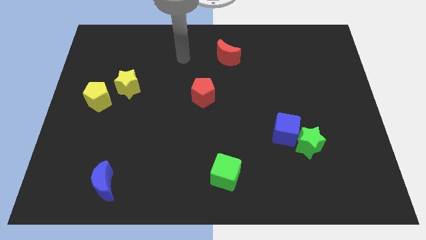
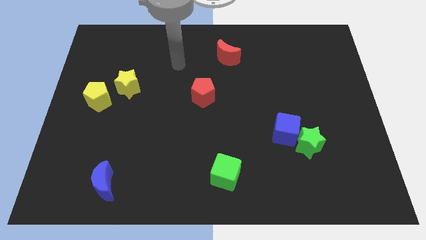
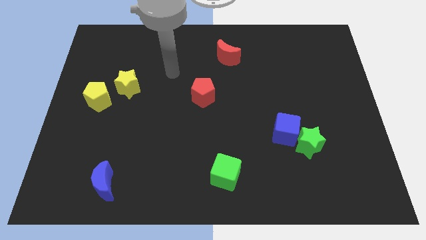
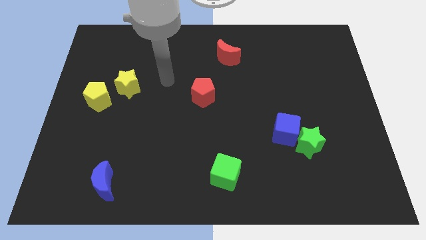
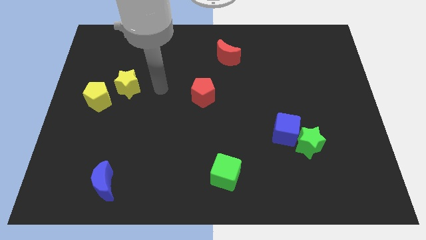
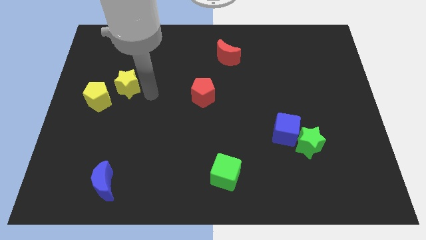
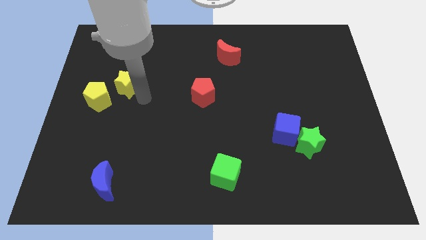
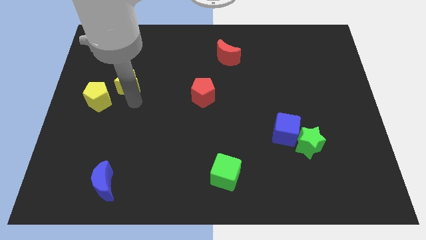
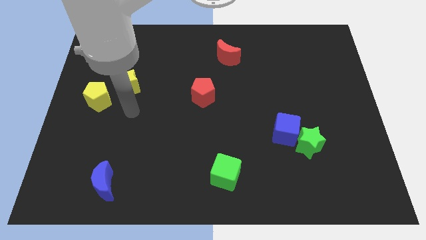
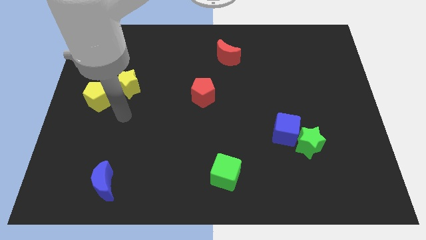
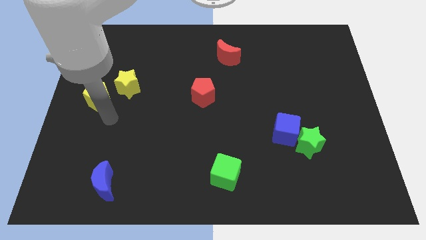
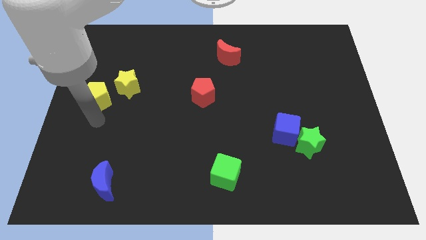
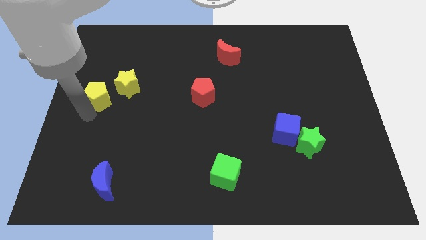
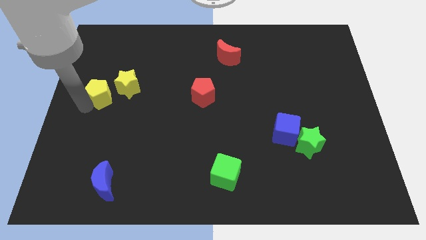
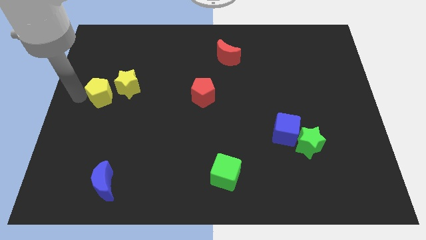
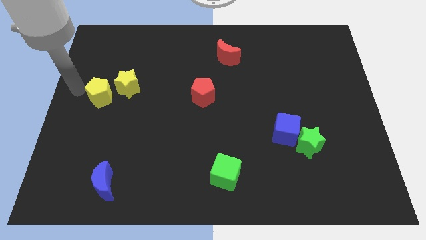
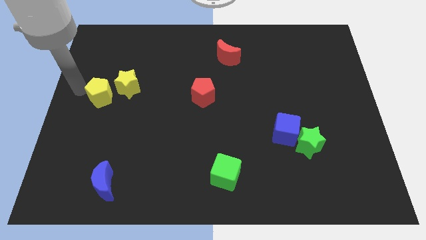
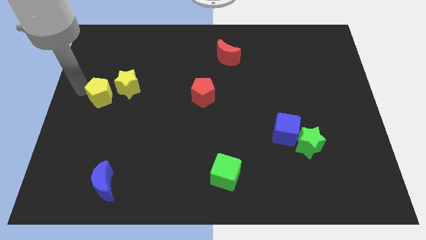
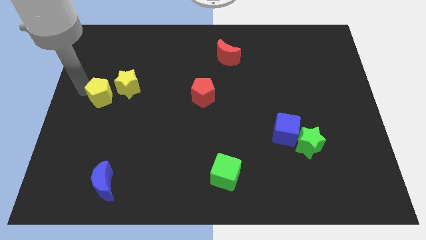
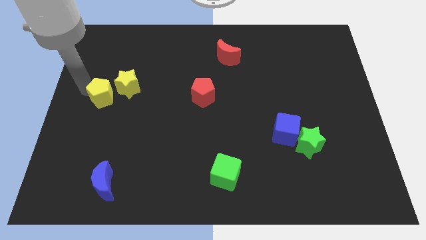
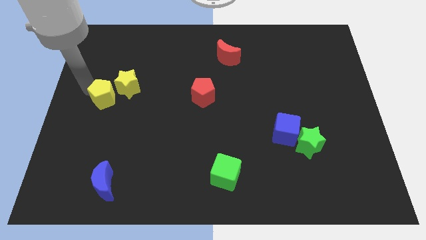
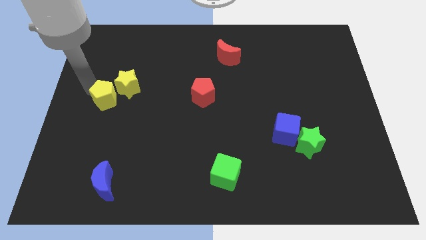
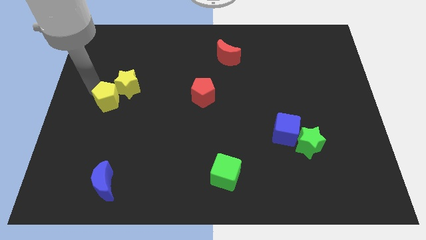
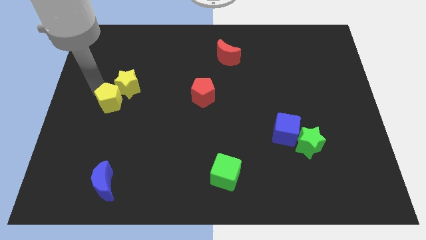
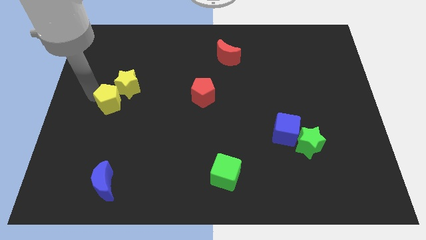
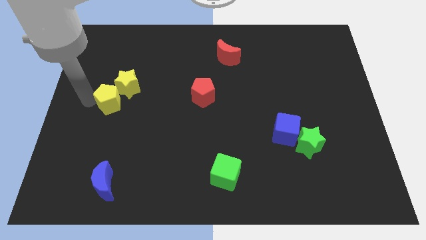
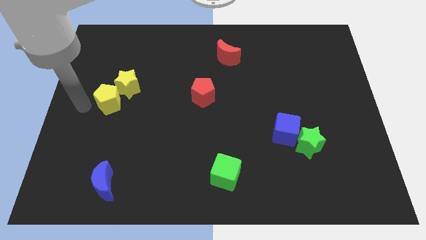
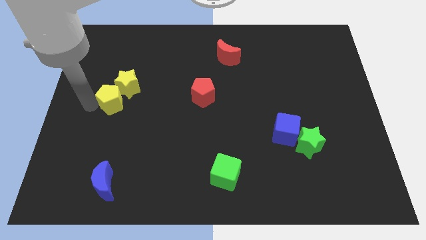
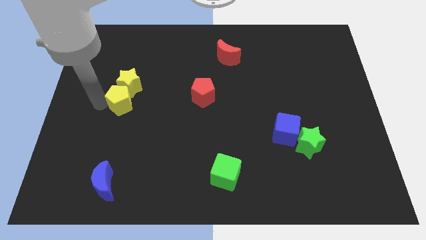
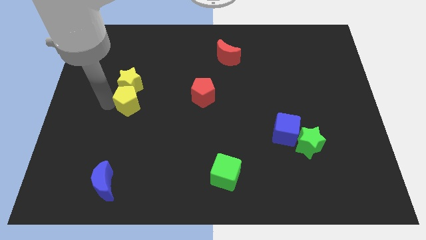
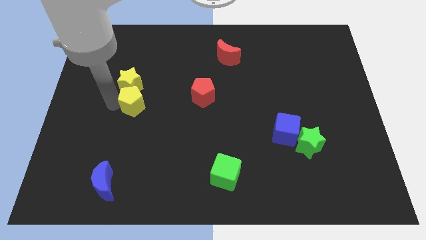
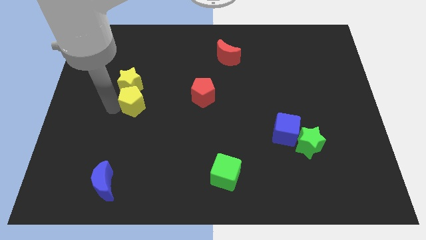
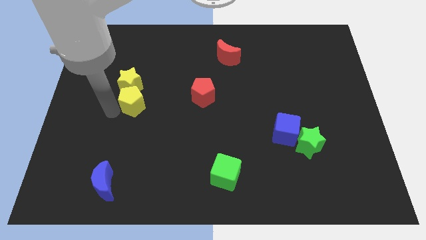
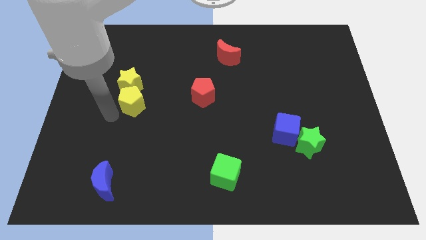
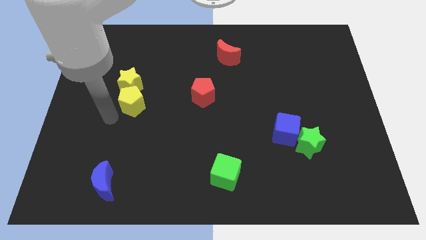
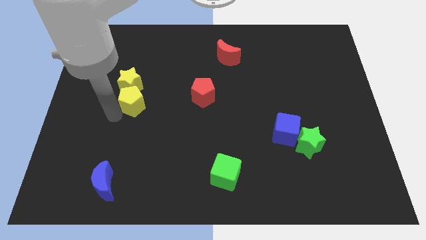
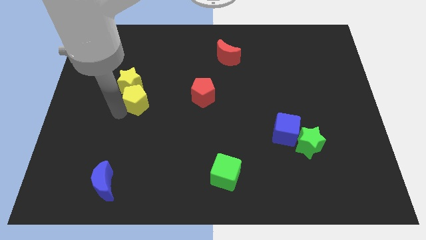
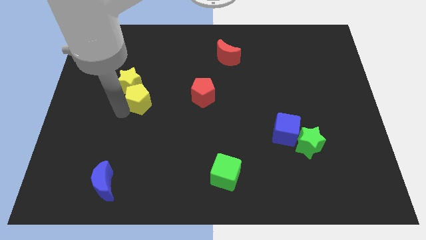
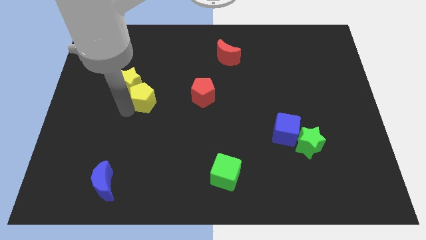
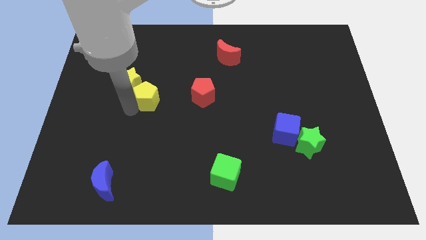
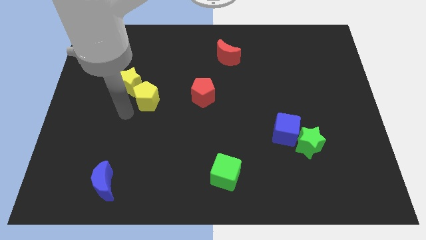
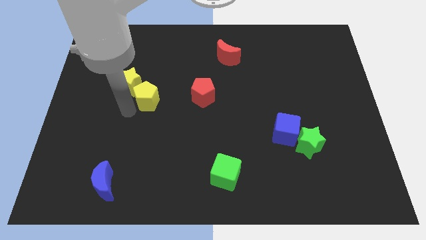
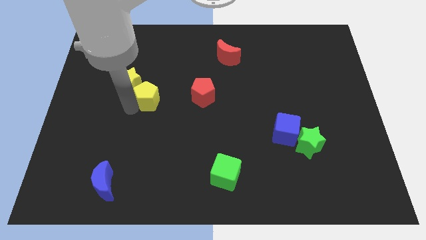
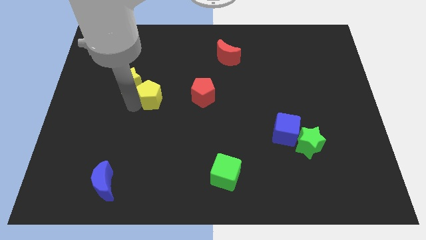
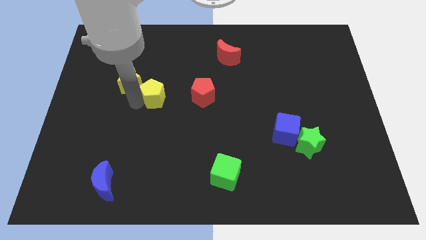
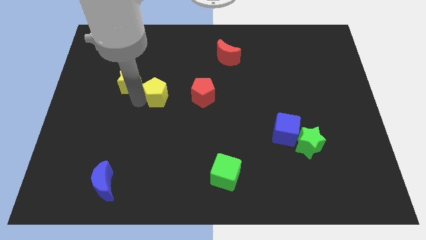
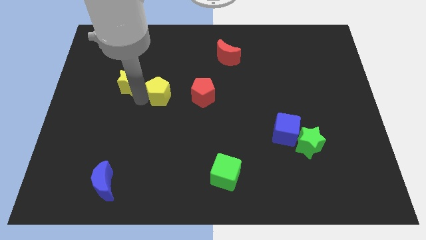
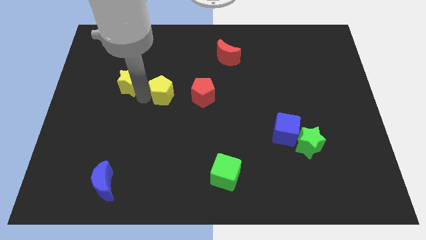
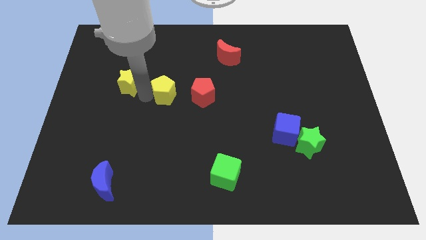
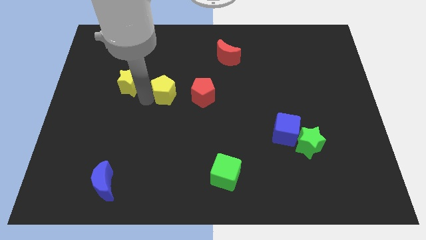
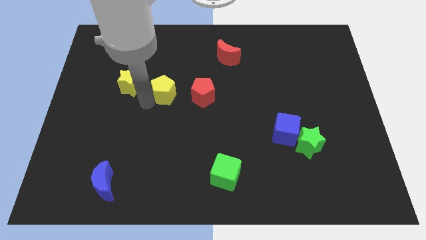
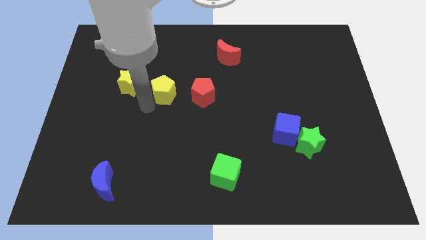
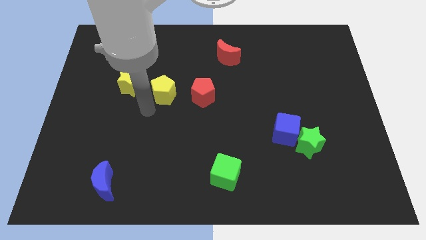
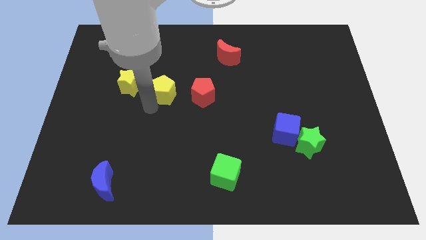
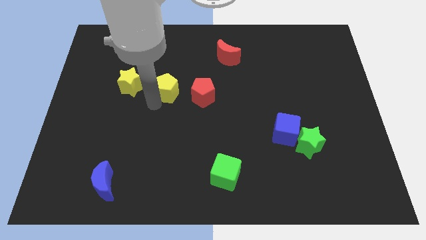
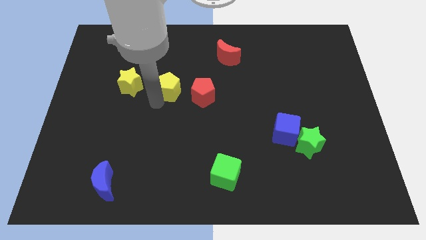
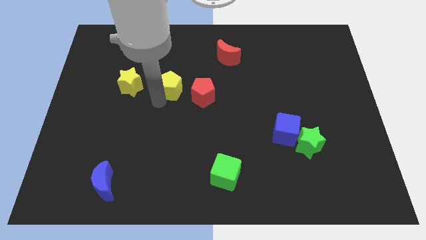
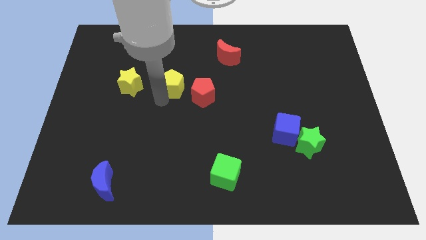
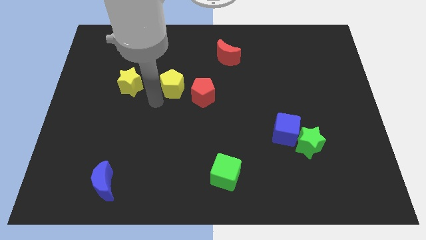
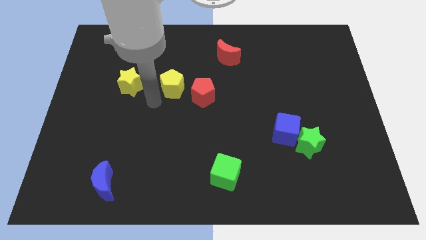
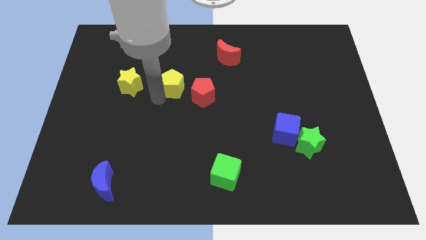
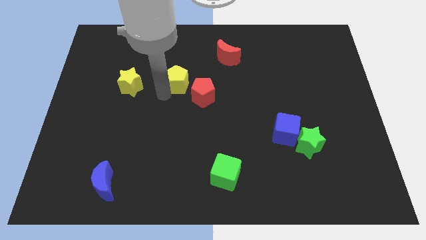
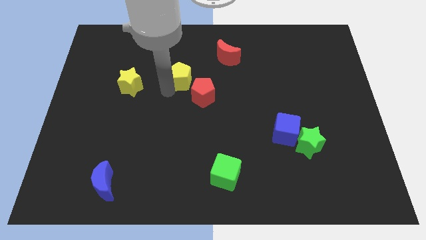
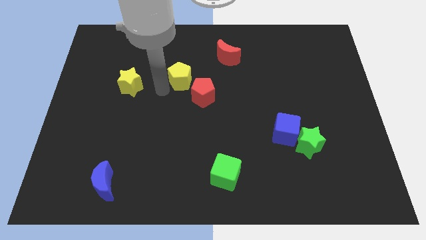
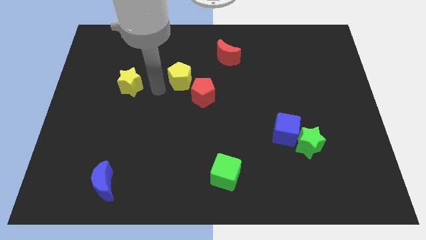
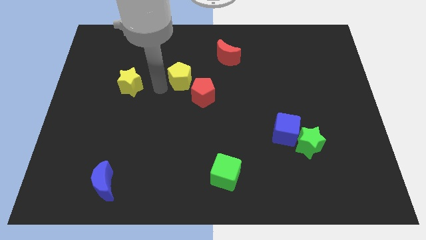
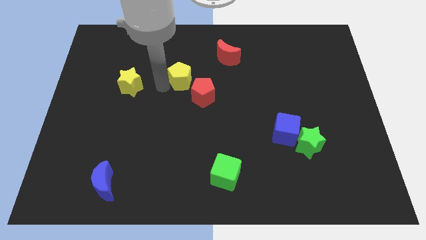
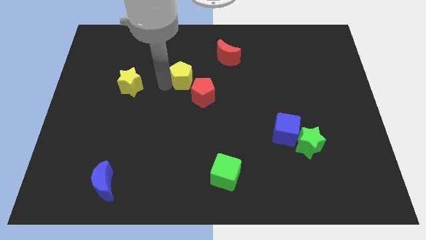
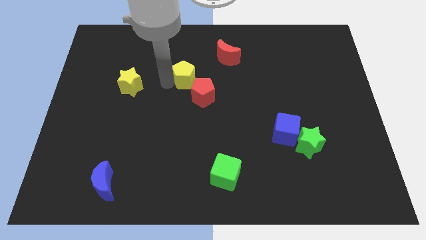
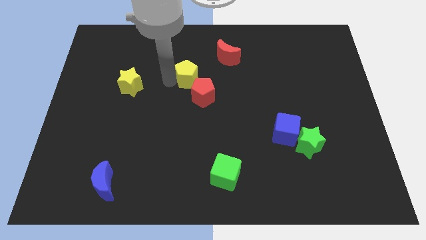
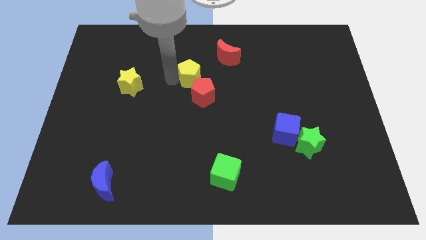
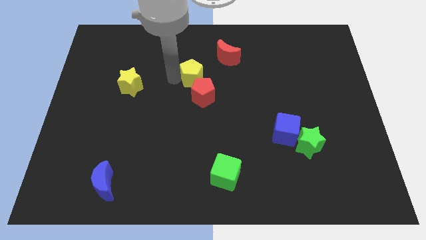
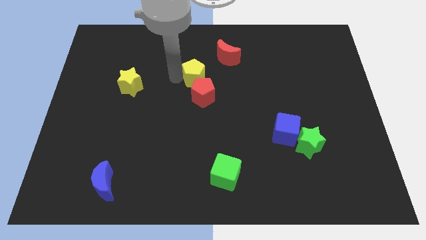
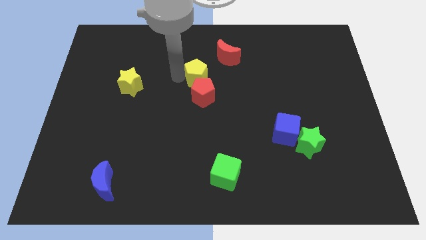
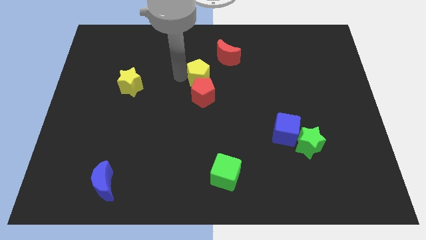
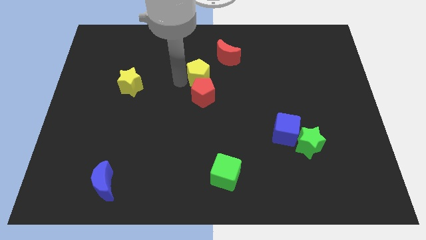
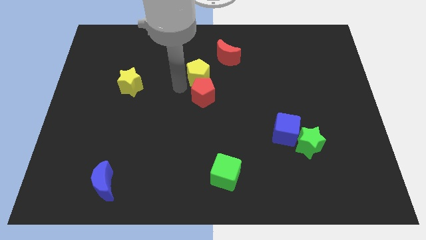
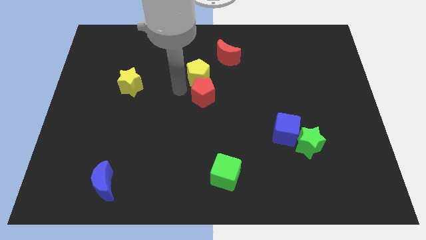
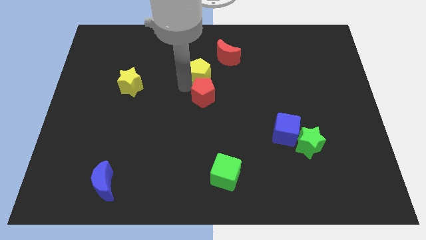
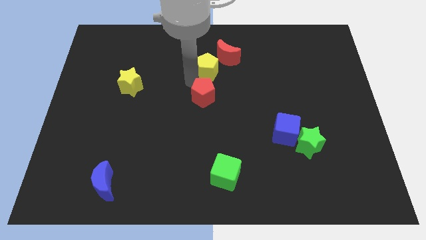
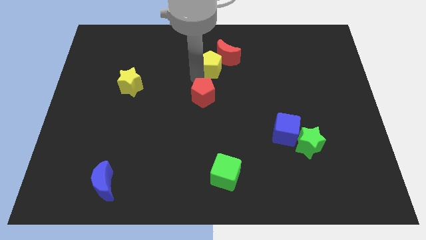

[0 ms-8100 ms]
move the yellow pentagon towards the red moon
